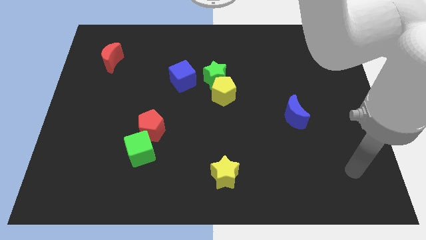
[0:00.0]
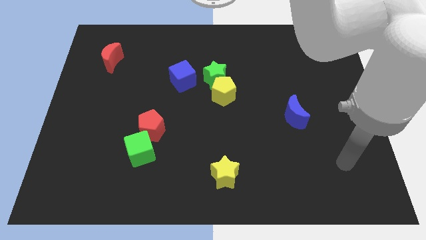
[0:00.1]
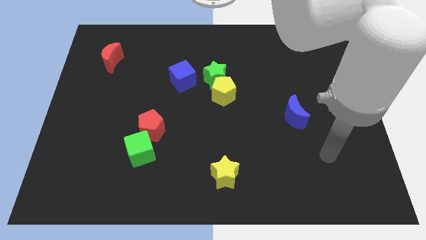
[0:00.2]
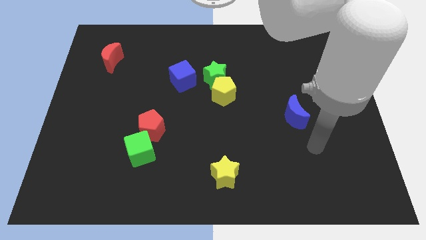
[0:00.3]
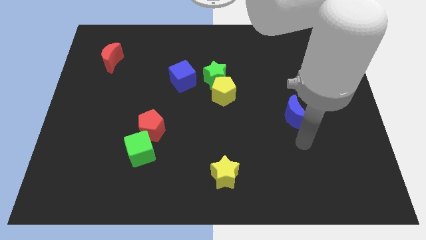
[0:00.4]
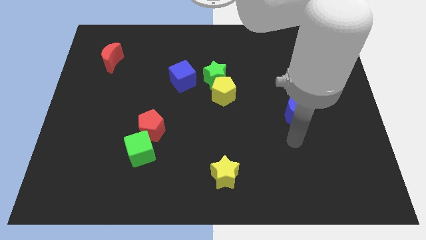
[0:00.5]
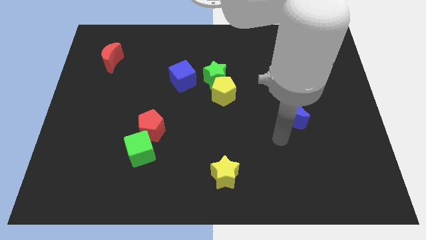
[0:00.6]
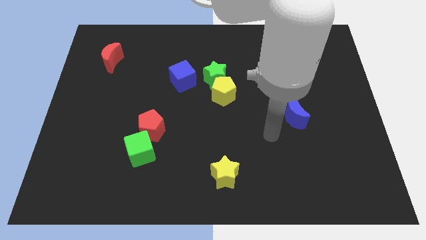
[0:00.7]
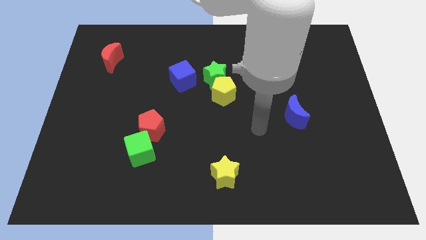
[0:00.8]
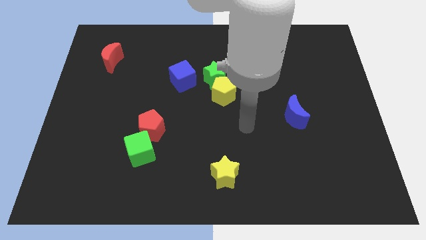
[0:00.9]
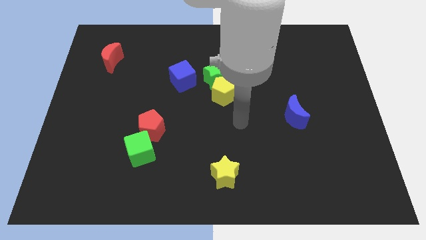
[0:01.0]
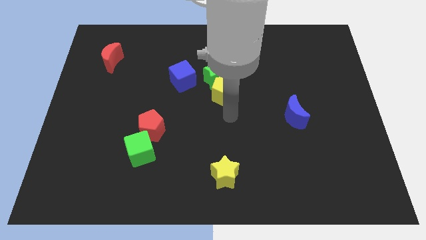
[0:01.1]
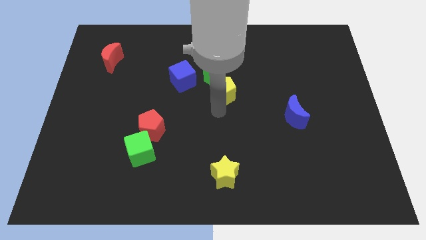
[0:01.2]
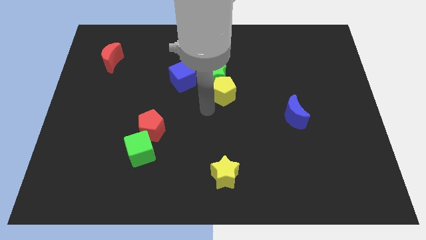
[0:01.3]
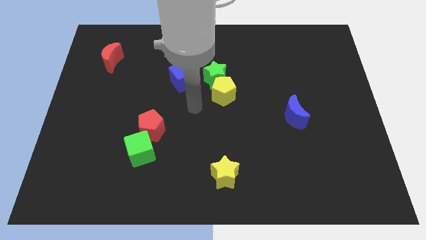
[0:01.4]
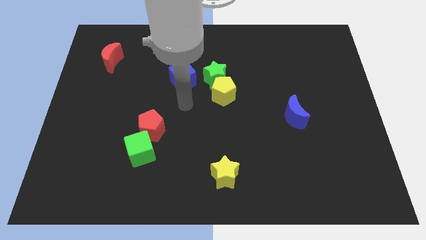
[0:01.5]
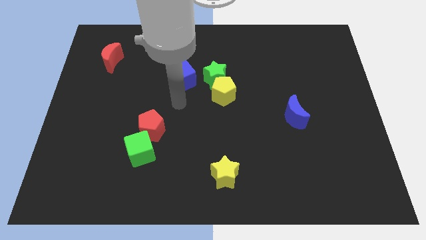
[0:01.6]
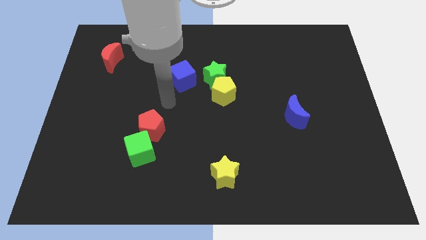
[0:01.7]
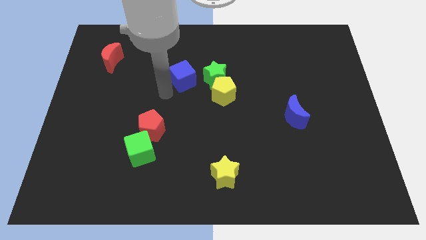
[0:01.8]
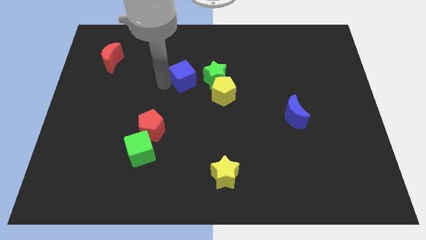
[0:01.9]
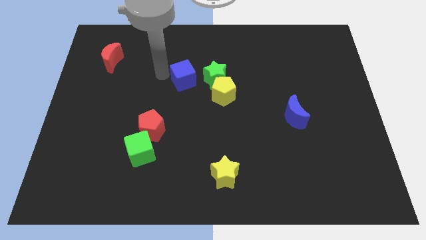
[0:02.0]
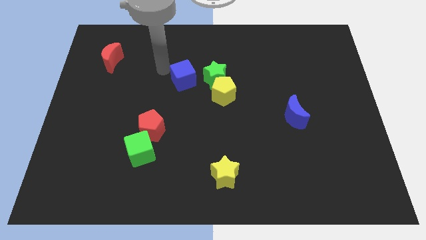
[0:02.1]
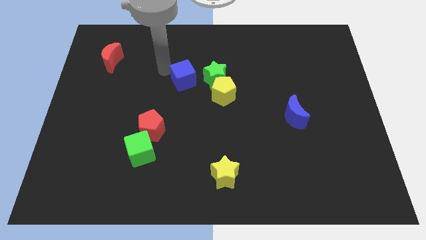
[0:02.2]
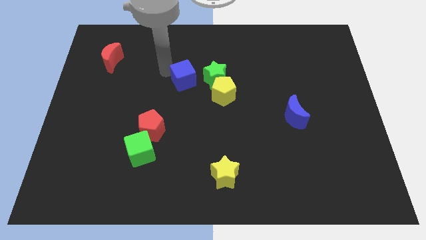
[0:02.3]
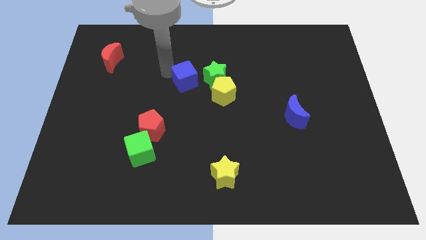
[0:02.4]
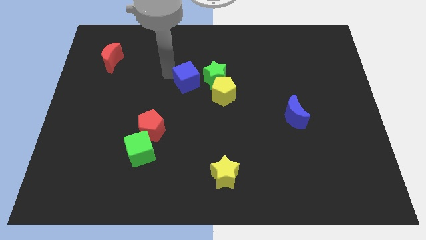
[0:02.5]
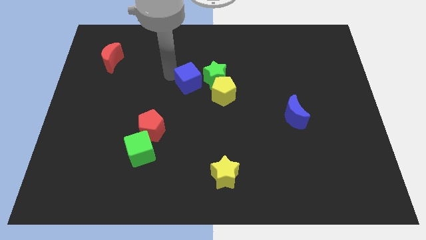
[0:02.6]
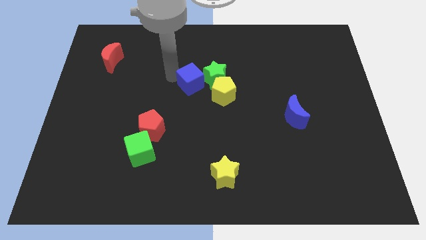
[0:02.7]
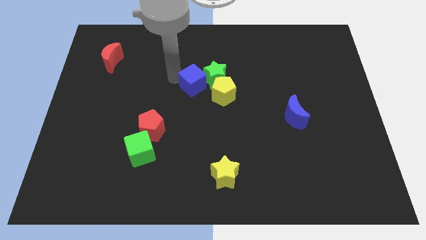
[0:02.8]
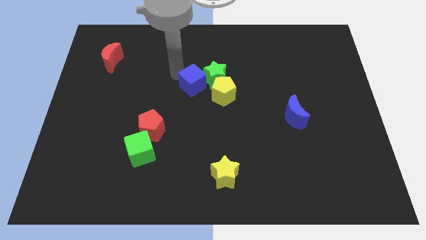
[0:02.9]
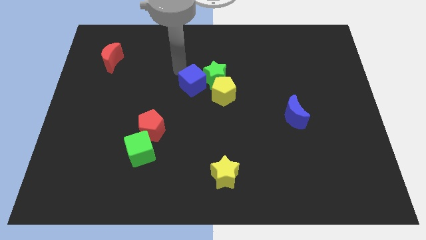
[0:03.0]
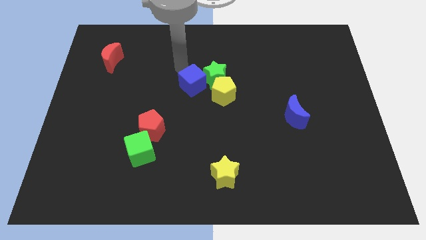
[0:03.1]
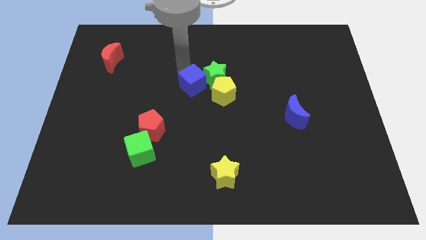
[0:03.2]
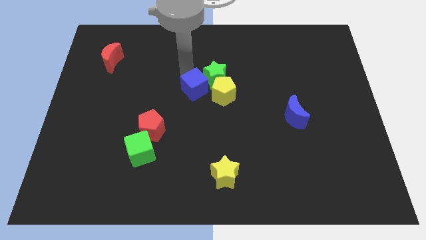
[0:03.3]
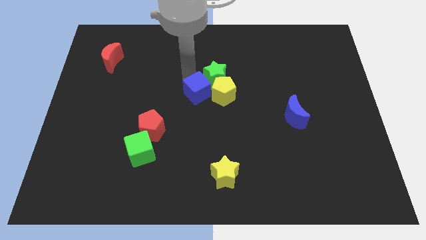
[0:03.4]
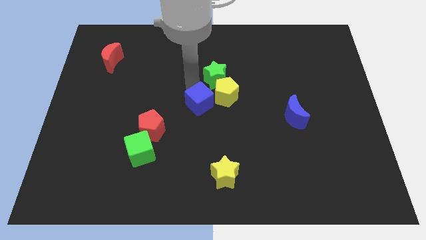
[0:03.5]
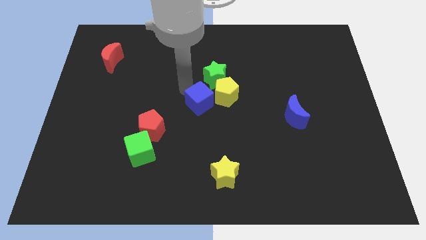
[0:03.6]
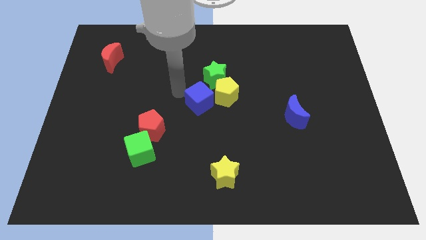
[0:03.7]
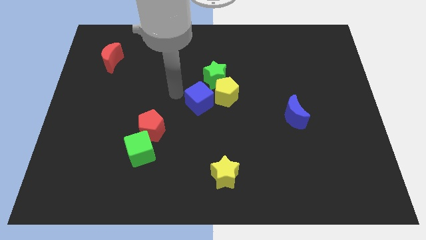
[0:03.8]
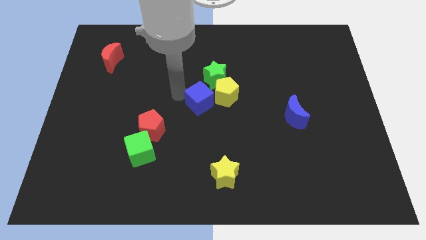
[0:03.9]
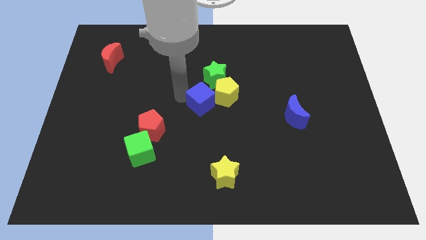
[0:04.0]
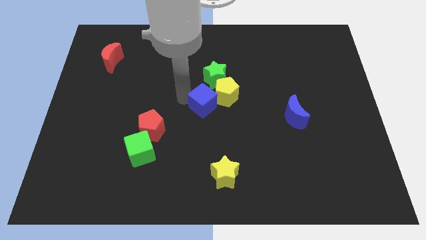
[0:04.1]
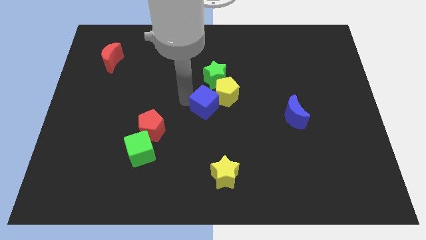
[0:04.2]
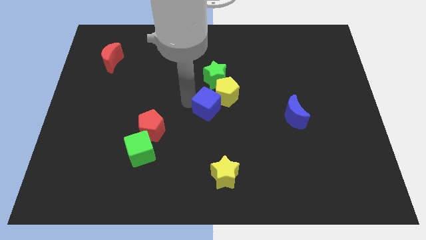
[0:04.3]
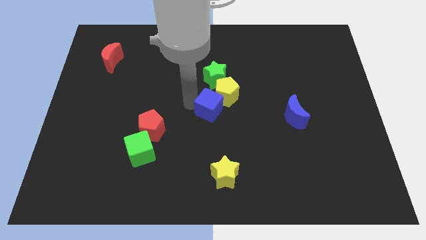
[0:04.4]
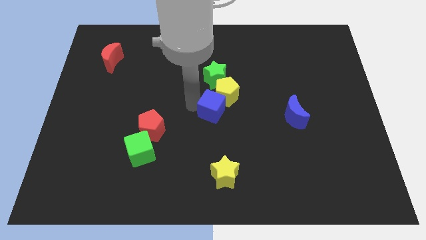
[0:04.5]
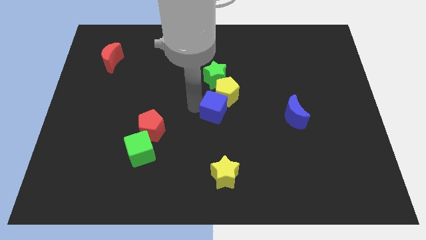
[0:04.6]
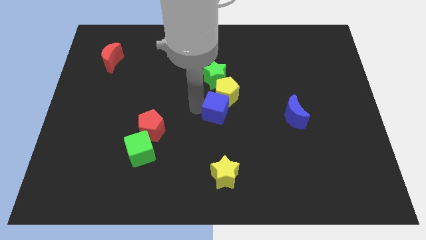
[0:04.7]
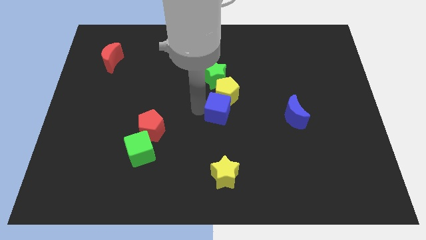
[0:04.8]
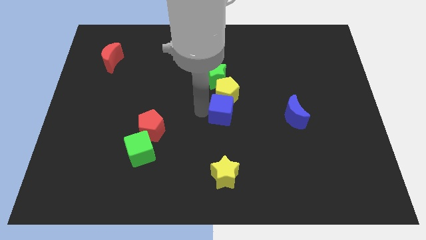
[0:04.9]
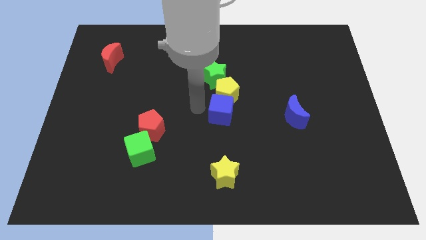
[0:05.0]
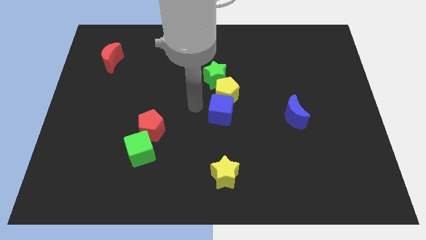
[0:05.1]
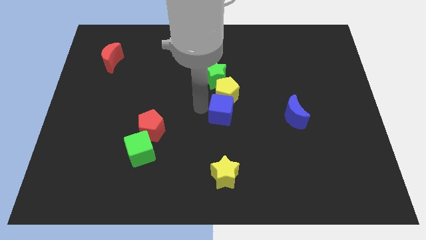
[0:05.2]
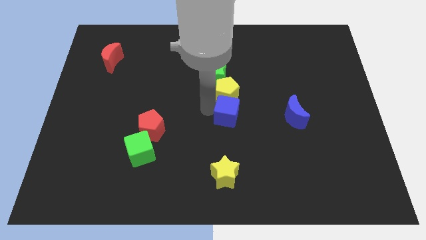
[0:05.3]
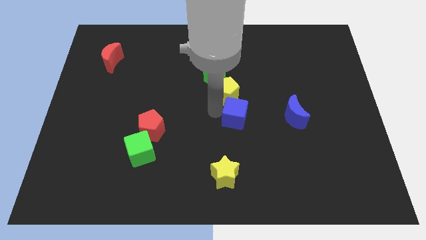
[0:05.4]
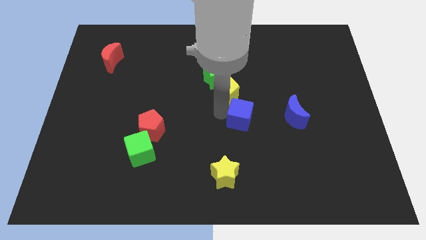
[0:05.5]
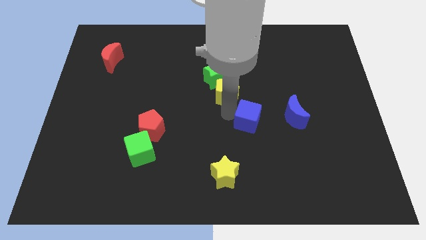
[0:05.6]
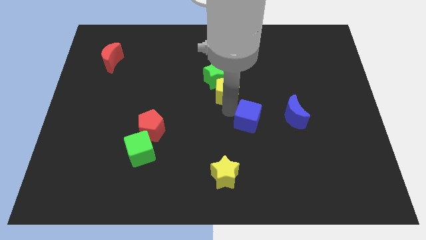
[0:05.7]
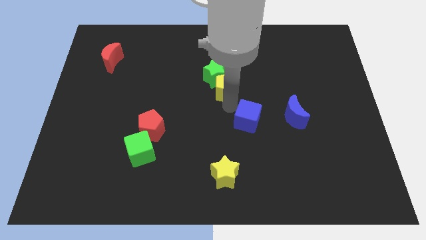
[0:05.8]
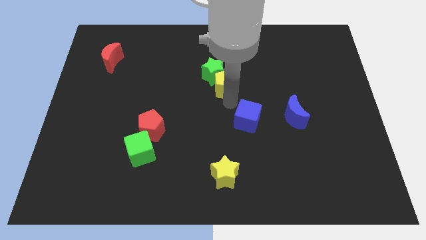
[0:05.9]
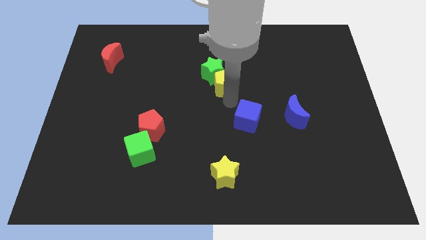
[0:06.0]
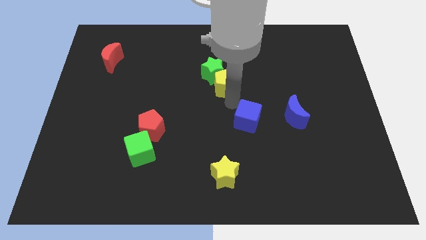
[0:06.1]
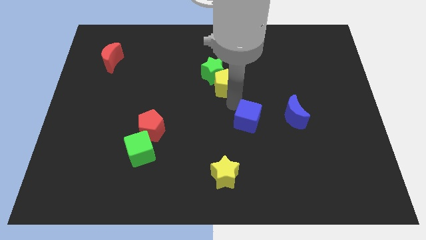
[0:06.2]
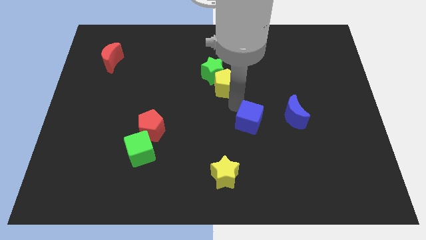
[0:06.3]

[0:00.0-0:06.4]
slide the blue cube diagonally down and right

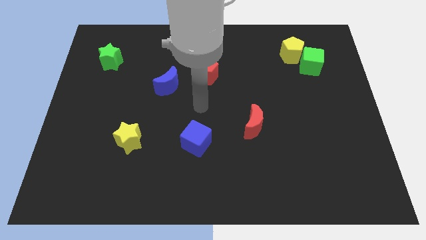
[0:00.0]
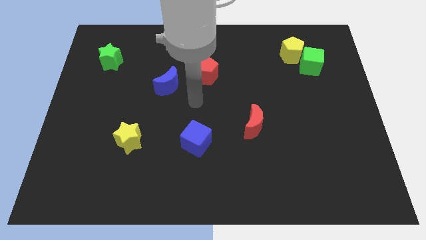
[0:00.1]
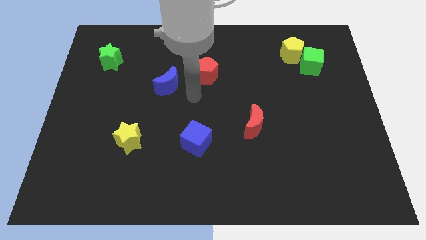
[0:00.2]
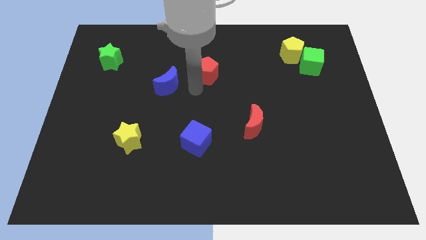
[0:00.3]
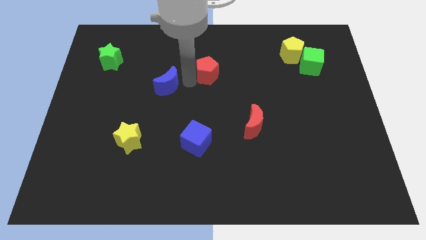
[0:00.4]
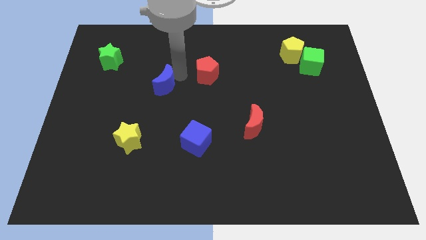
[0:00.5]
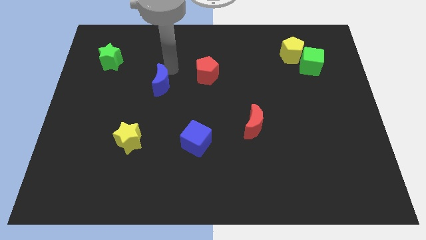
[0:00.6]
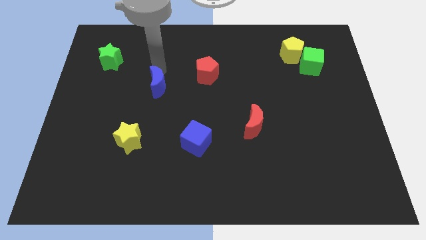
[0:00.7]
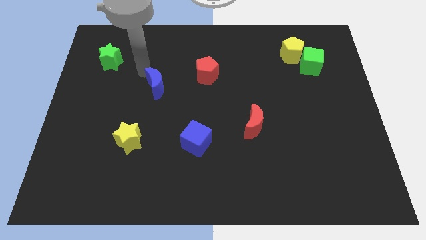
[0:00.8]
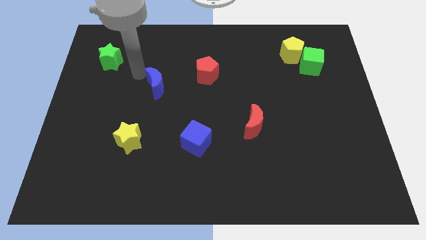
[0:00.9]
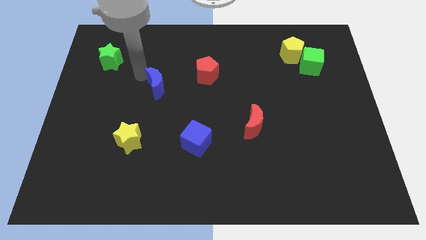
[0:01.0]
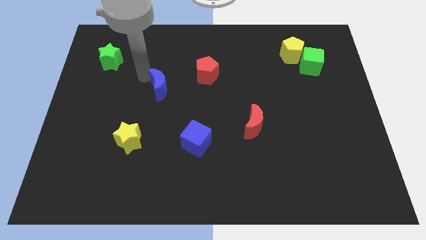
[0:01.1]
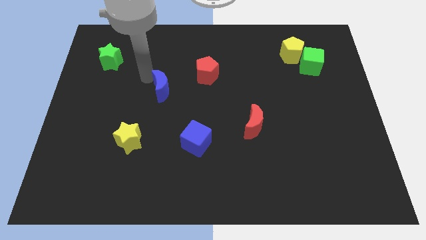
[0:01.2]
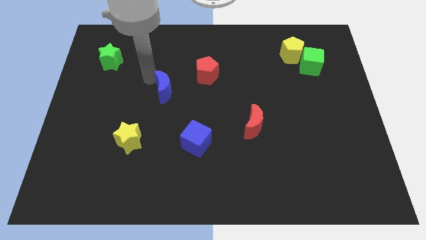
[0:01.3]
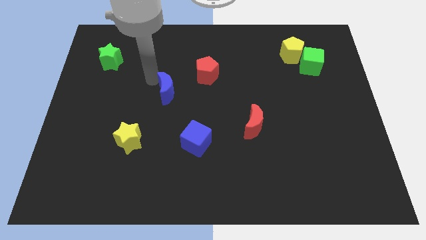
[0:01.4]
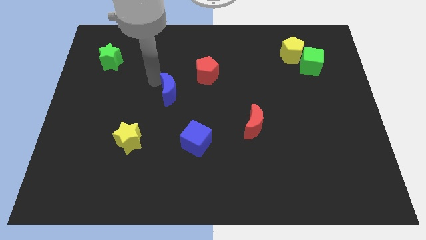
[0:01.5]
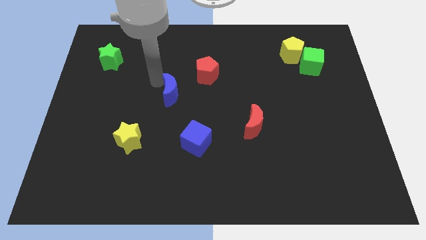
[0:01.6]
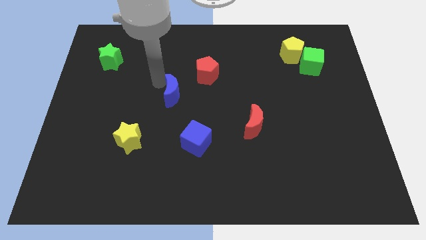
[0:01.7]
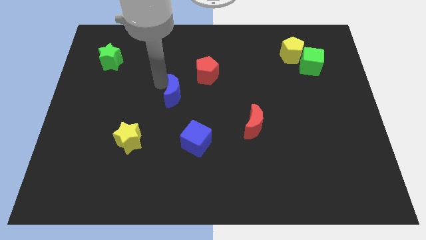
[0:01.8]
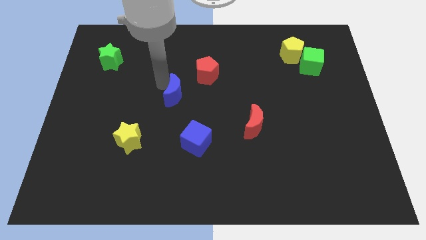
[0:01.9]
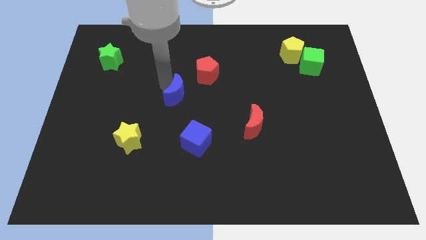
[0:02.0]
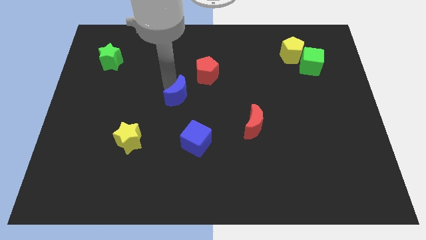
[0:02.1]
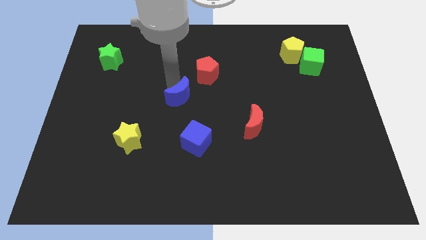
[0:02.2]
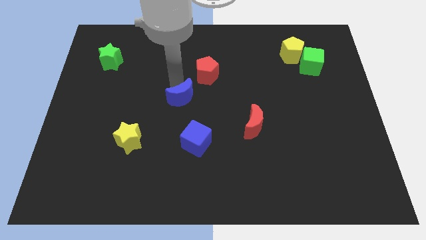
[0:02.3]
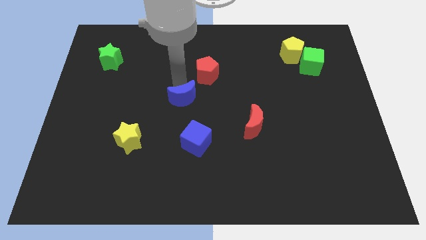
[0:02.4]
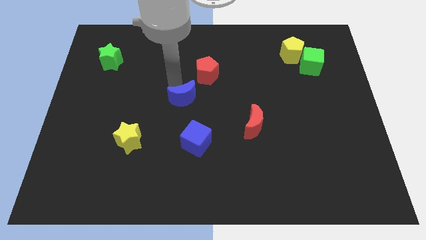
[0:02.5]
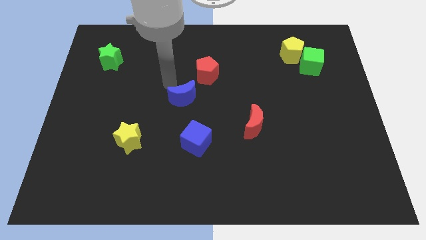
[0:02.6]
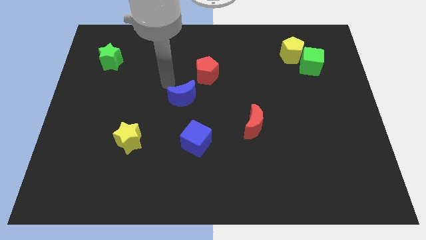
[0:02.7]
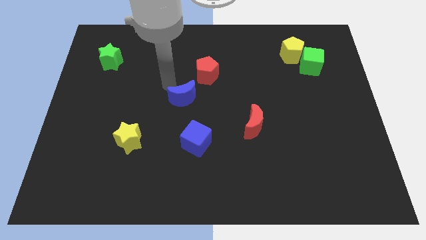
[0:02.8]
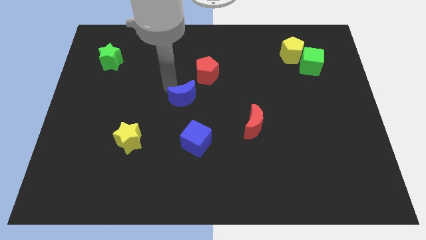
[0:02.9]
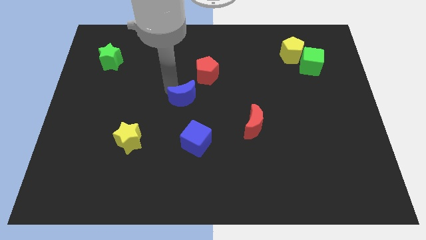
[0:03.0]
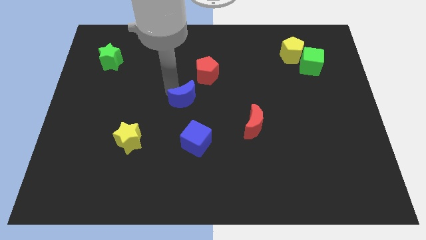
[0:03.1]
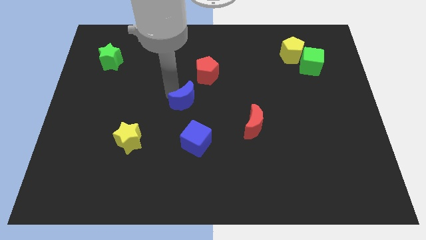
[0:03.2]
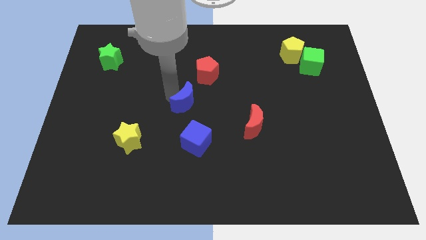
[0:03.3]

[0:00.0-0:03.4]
slightly slide the blue moon diagonally down and to the right
